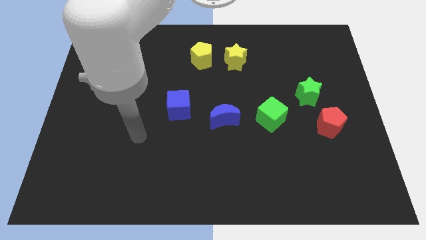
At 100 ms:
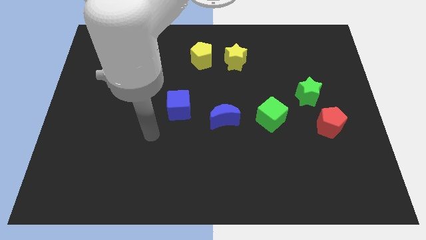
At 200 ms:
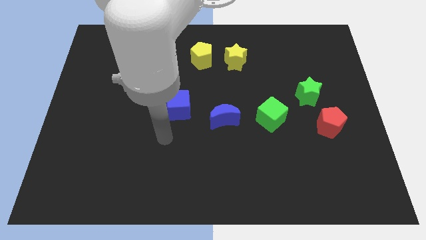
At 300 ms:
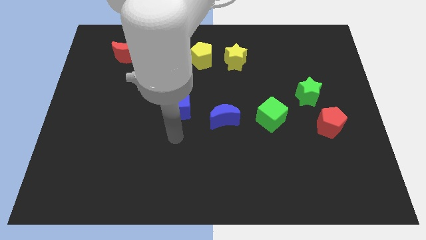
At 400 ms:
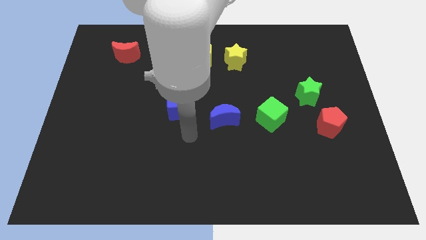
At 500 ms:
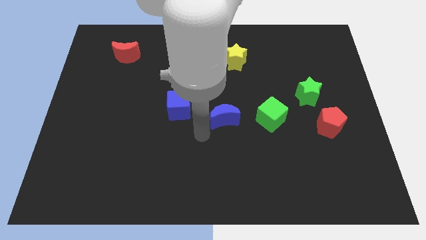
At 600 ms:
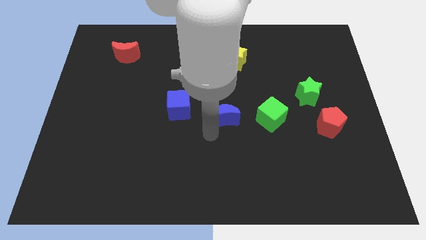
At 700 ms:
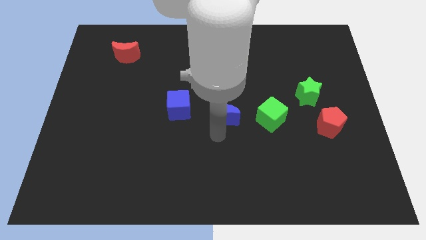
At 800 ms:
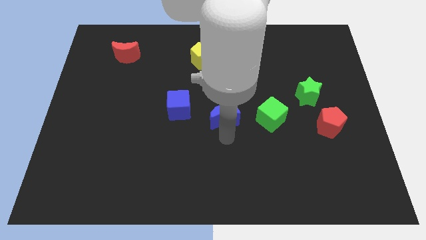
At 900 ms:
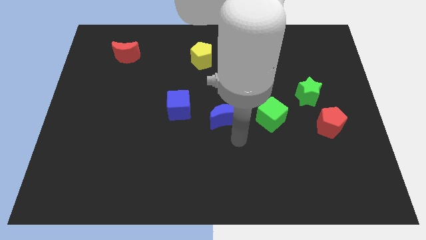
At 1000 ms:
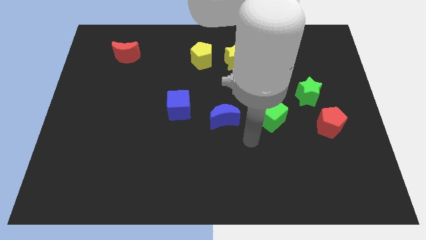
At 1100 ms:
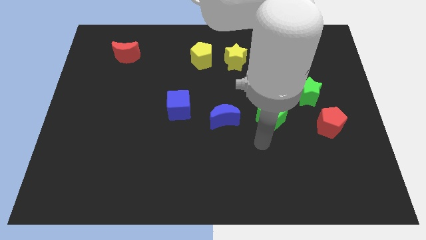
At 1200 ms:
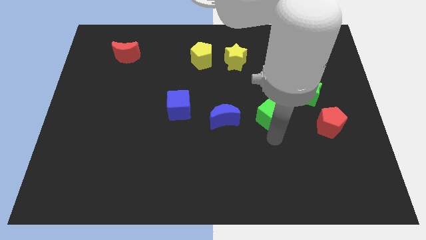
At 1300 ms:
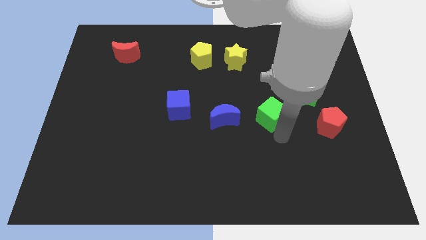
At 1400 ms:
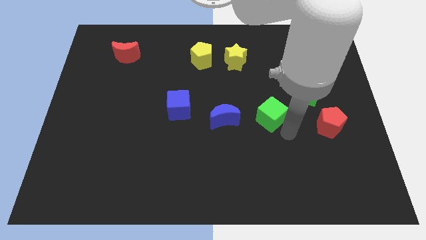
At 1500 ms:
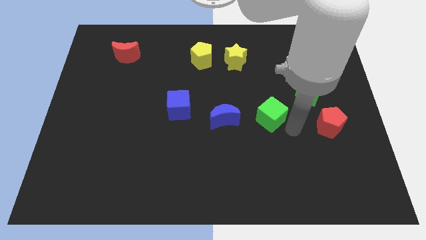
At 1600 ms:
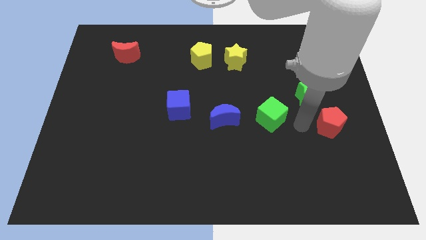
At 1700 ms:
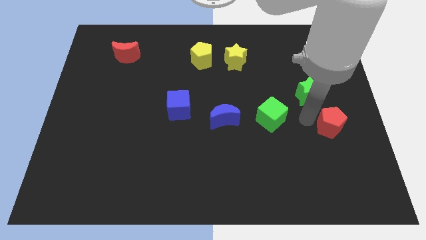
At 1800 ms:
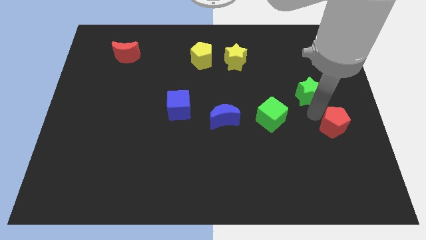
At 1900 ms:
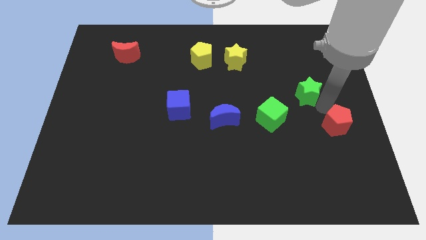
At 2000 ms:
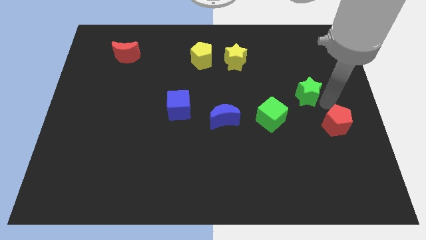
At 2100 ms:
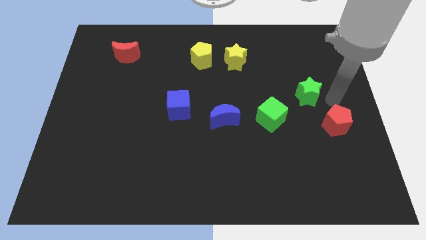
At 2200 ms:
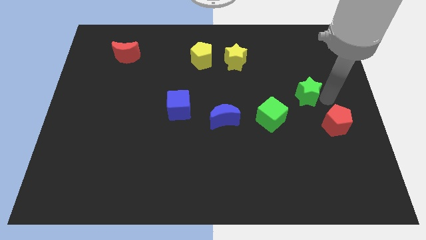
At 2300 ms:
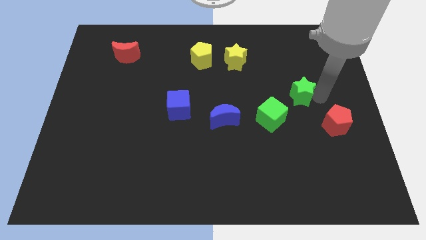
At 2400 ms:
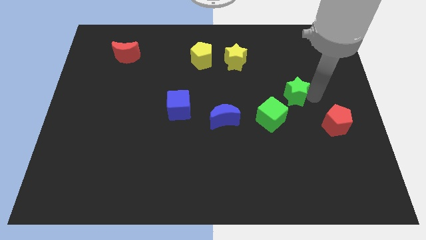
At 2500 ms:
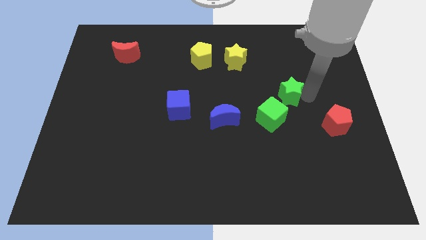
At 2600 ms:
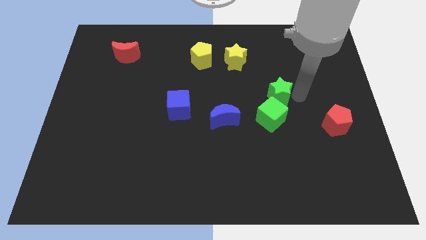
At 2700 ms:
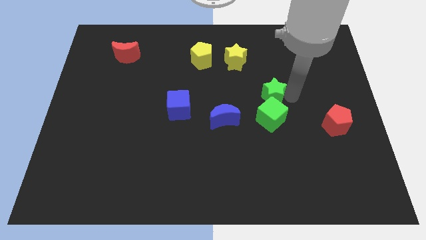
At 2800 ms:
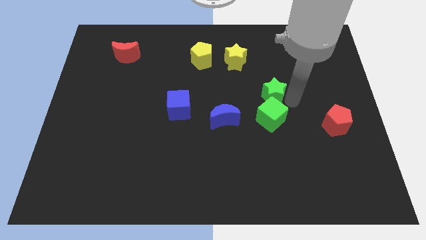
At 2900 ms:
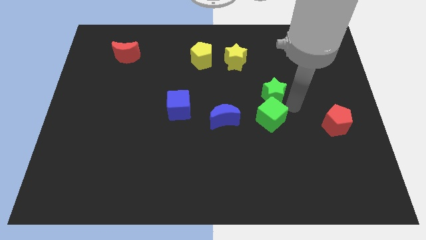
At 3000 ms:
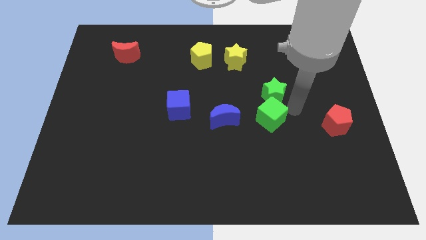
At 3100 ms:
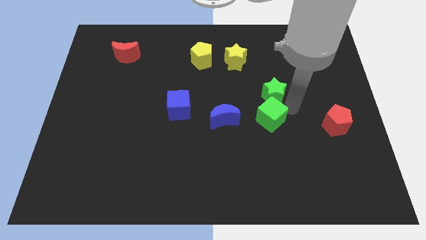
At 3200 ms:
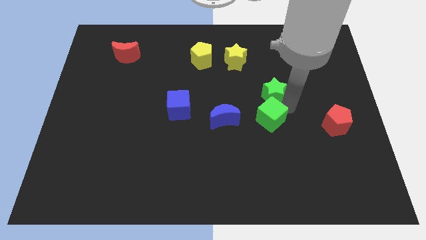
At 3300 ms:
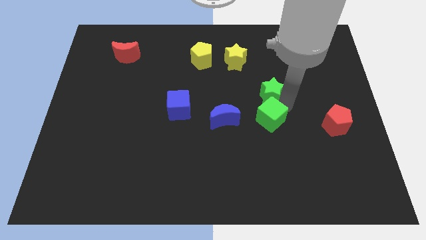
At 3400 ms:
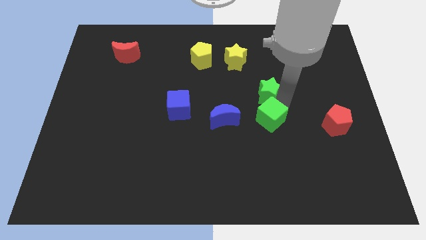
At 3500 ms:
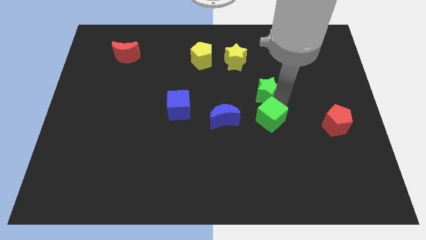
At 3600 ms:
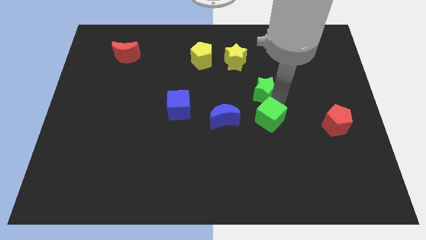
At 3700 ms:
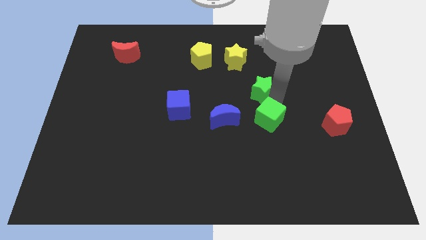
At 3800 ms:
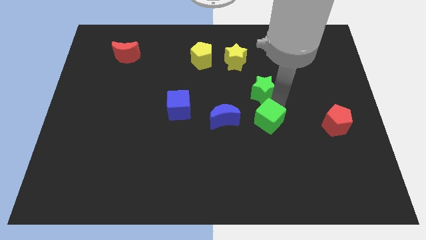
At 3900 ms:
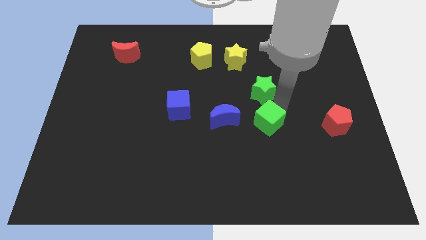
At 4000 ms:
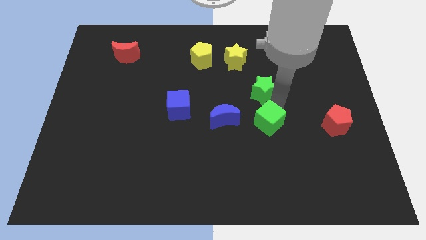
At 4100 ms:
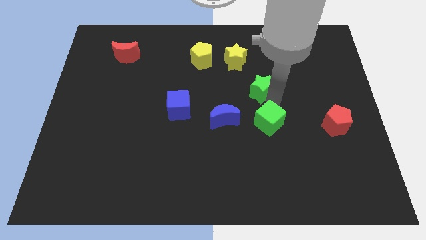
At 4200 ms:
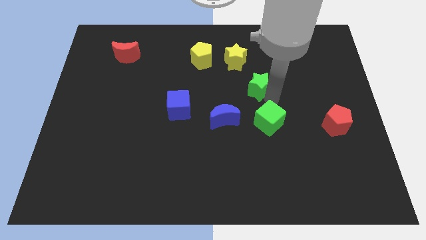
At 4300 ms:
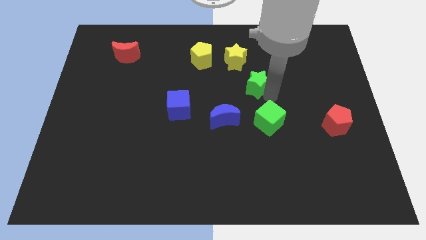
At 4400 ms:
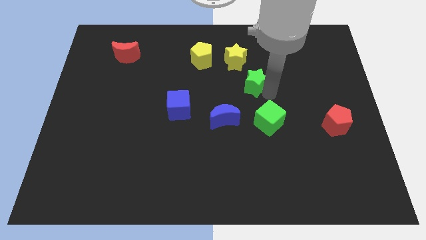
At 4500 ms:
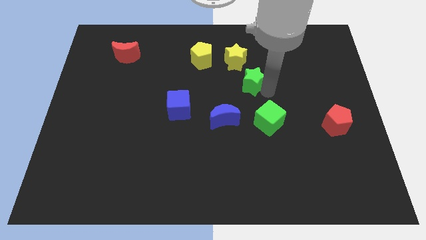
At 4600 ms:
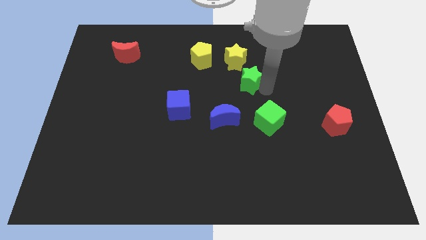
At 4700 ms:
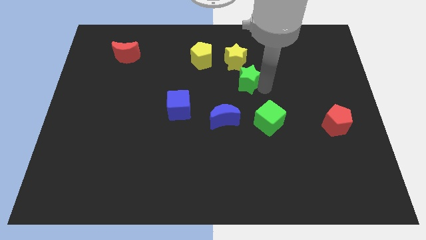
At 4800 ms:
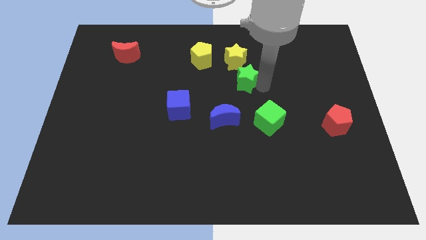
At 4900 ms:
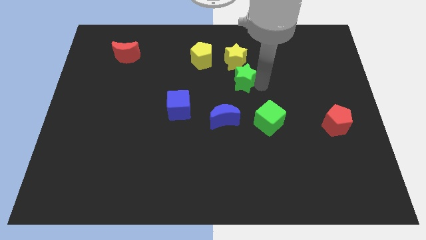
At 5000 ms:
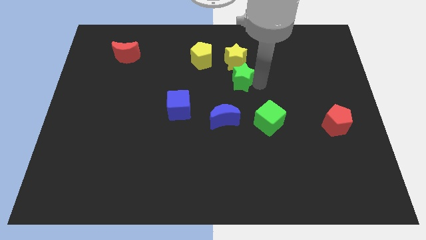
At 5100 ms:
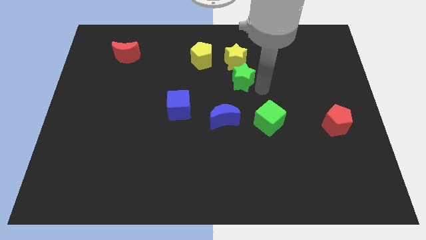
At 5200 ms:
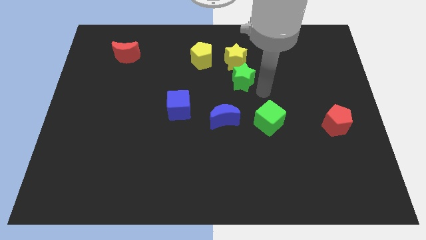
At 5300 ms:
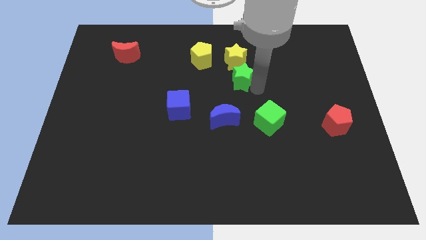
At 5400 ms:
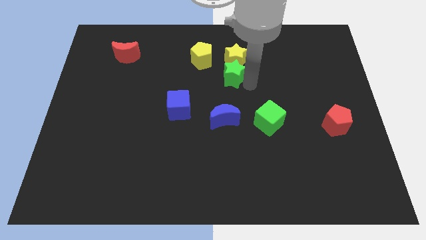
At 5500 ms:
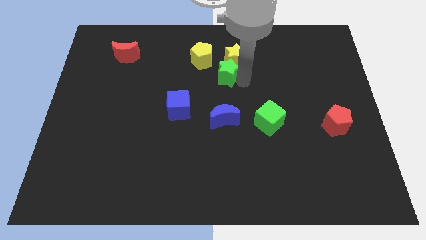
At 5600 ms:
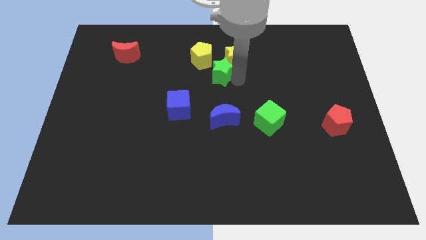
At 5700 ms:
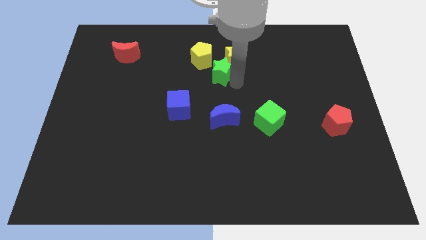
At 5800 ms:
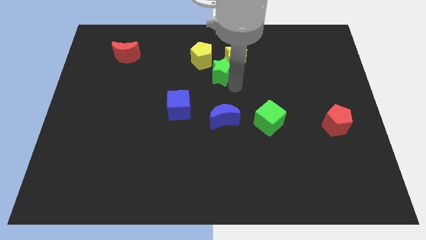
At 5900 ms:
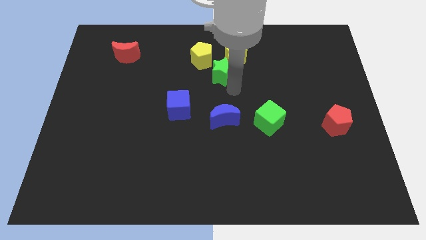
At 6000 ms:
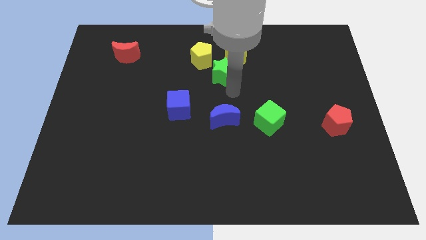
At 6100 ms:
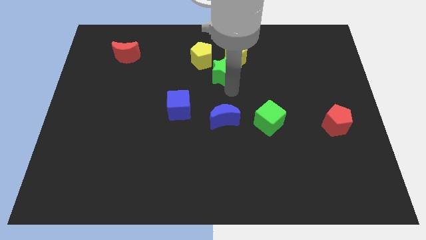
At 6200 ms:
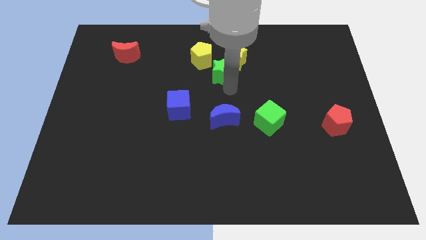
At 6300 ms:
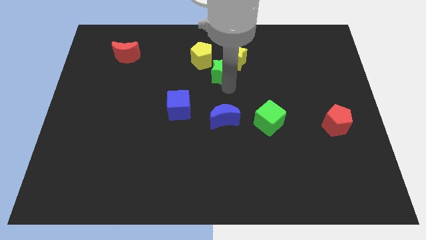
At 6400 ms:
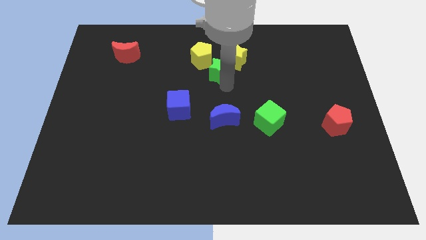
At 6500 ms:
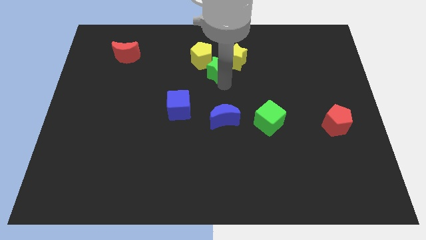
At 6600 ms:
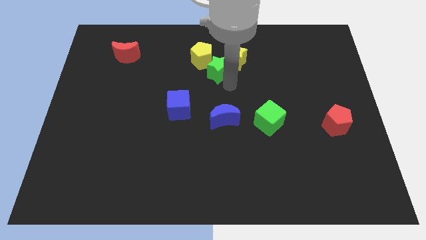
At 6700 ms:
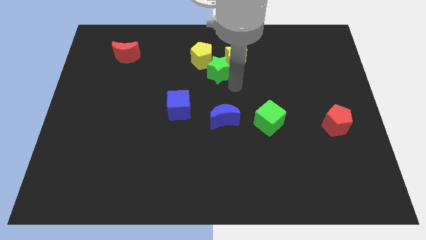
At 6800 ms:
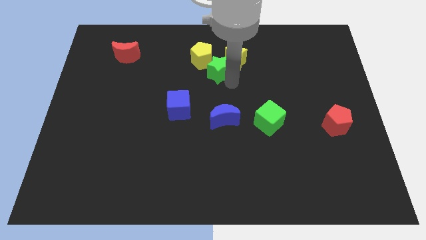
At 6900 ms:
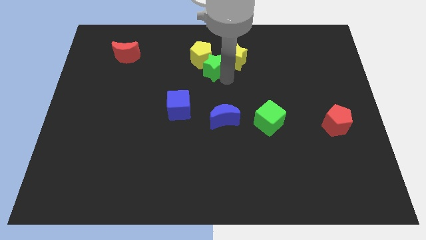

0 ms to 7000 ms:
push the green star next to the yellow pentagon
